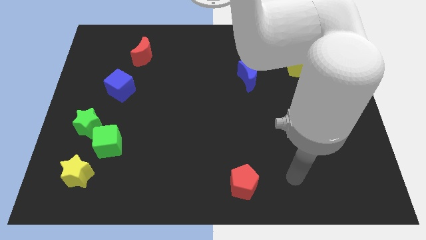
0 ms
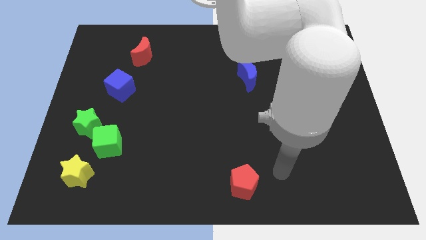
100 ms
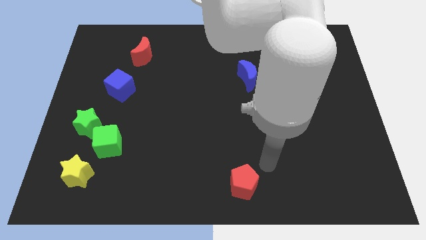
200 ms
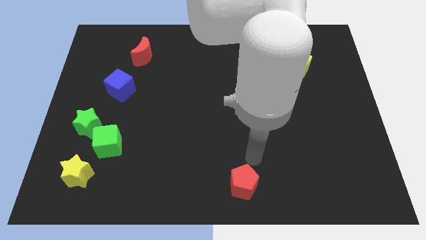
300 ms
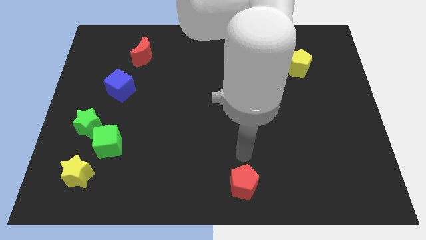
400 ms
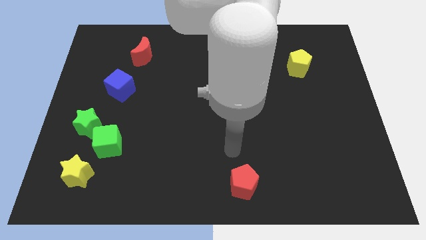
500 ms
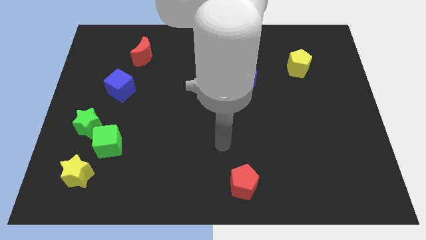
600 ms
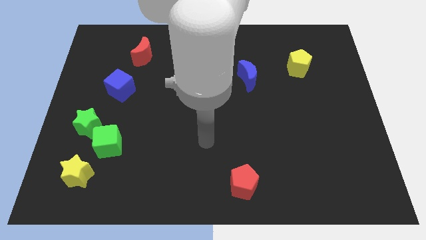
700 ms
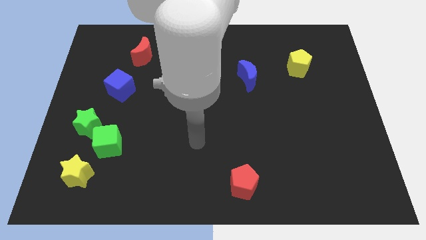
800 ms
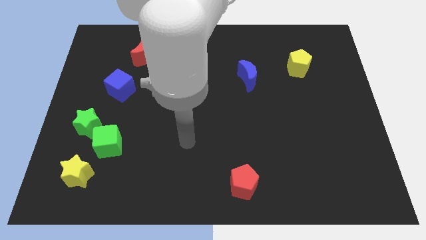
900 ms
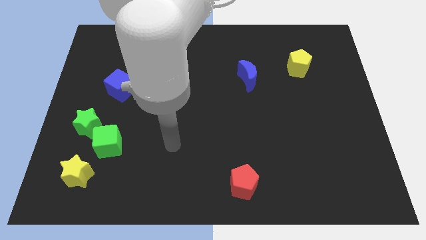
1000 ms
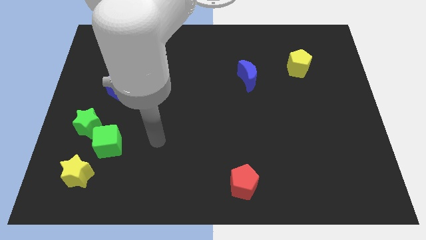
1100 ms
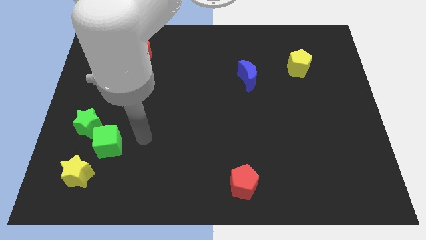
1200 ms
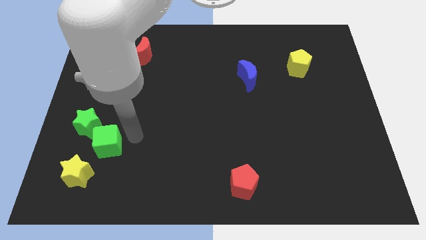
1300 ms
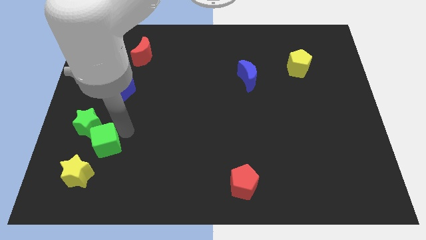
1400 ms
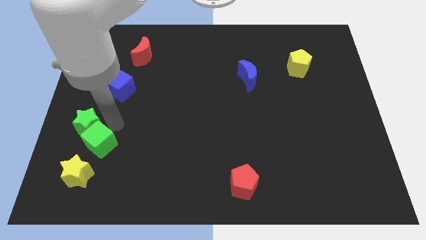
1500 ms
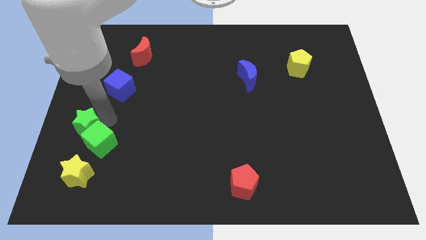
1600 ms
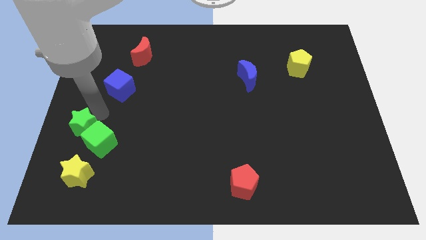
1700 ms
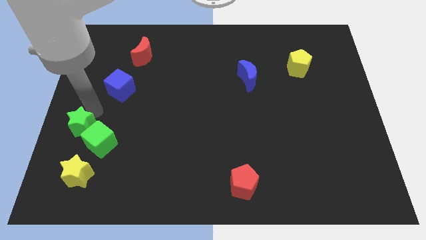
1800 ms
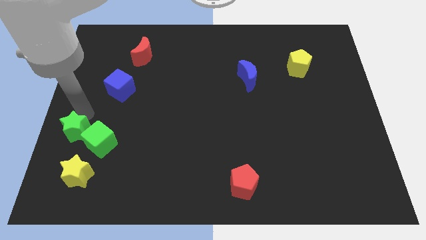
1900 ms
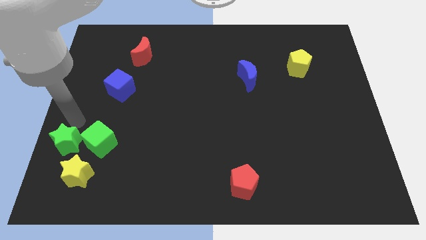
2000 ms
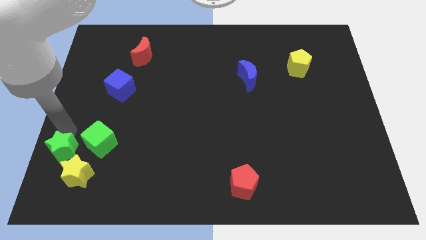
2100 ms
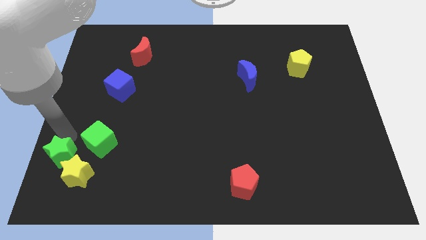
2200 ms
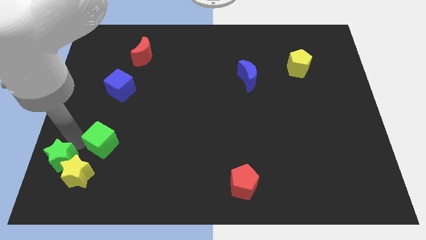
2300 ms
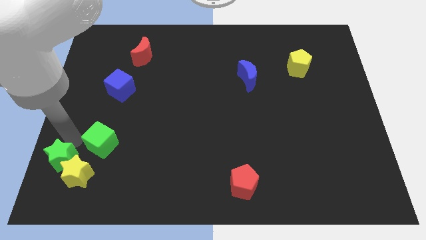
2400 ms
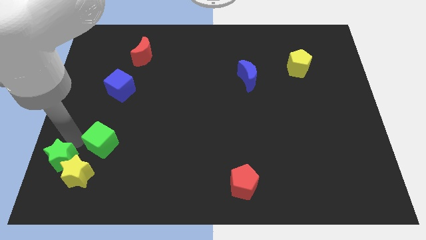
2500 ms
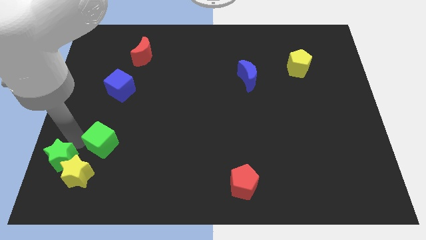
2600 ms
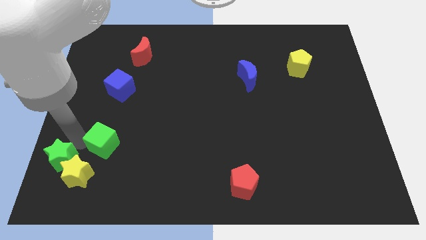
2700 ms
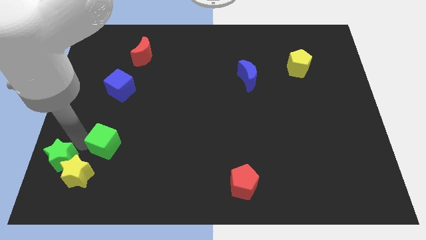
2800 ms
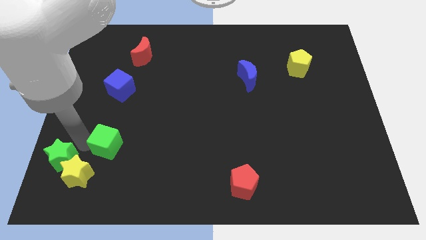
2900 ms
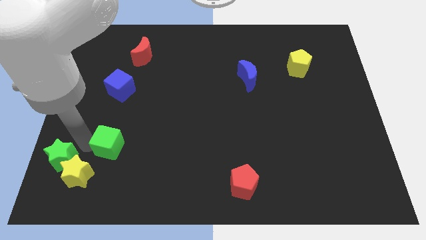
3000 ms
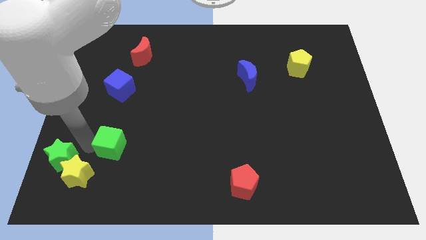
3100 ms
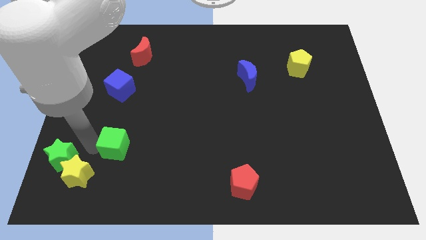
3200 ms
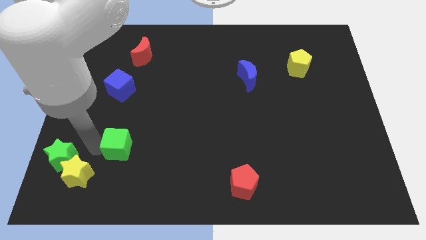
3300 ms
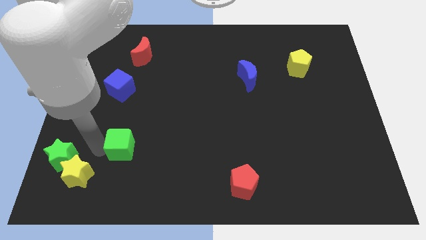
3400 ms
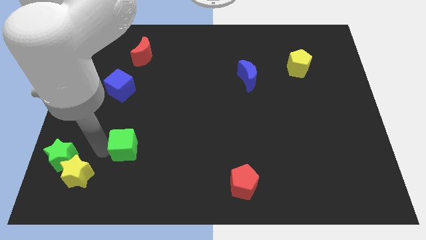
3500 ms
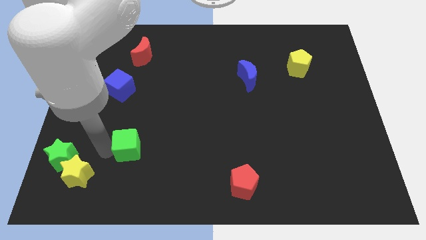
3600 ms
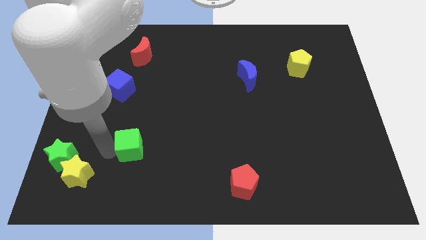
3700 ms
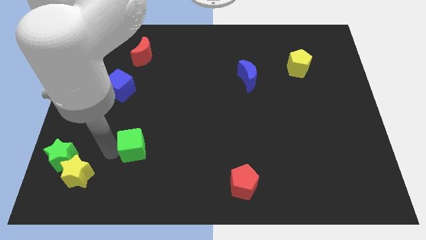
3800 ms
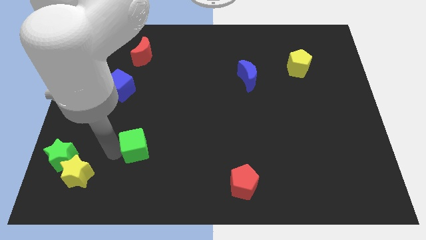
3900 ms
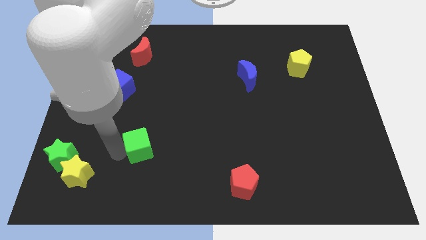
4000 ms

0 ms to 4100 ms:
push the green cube a little right

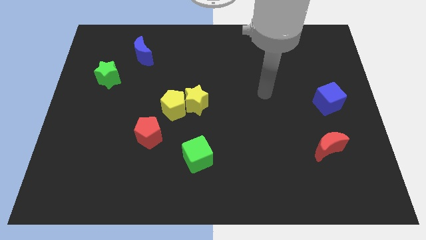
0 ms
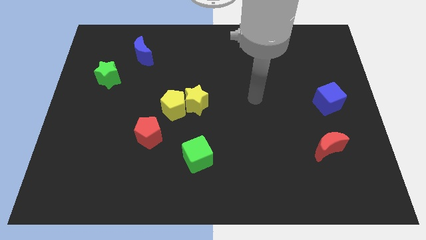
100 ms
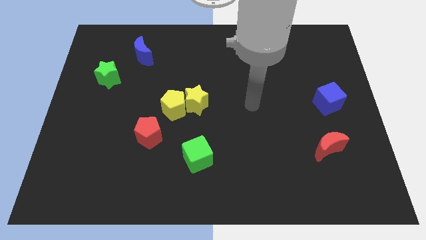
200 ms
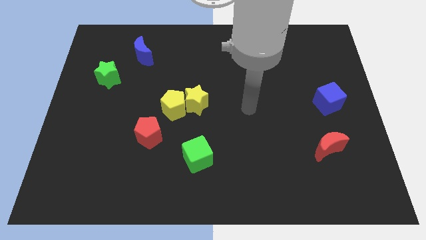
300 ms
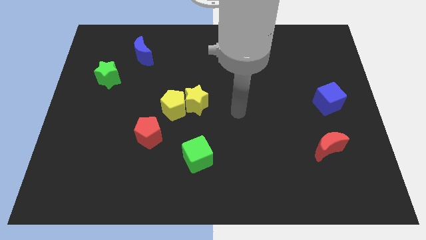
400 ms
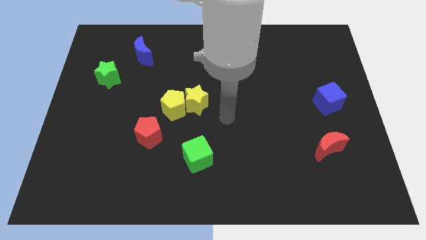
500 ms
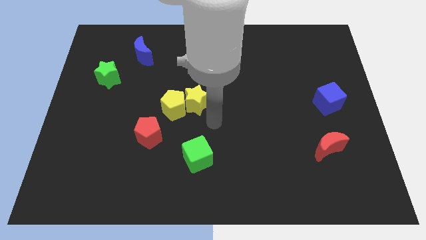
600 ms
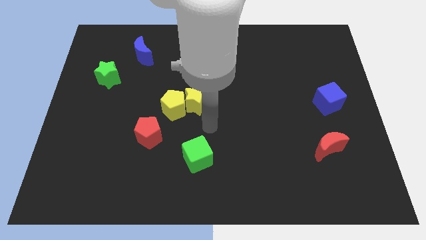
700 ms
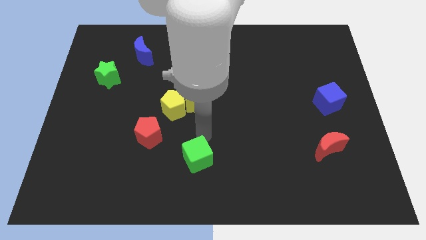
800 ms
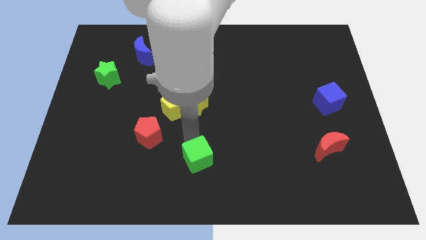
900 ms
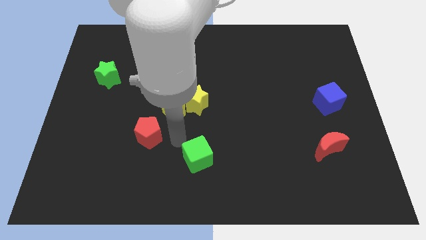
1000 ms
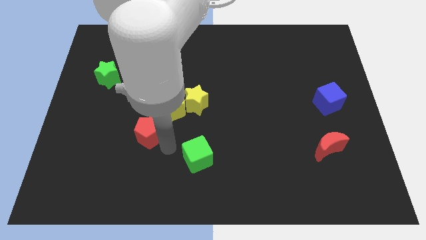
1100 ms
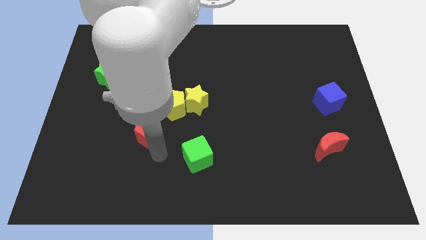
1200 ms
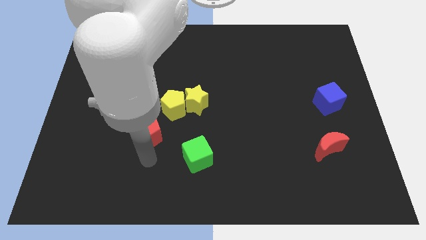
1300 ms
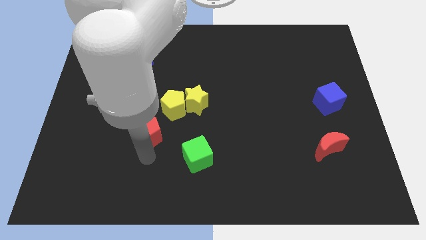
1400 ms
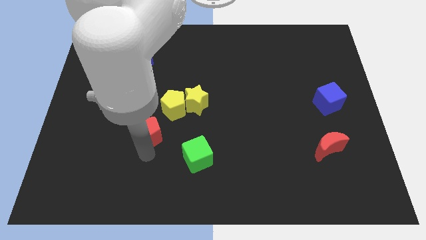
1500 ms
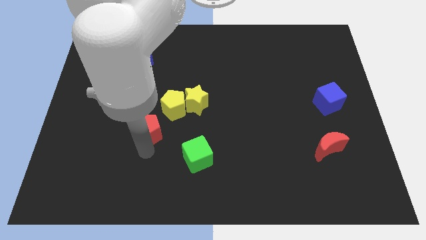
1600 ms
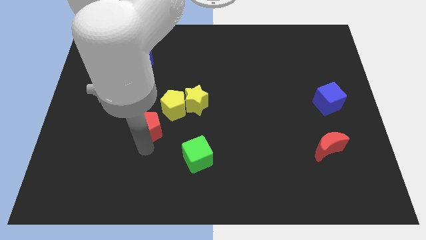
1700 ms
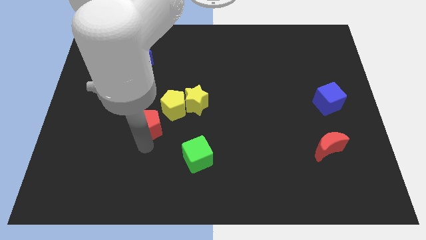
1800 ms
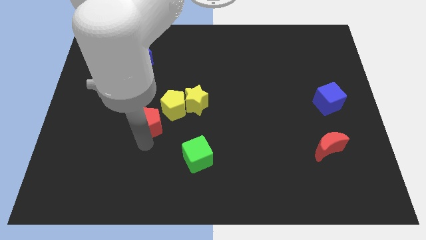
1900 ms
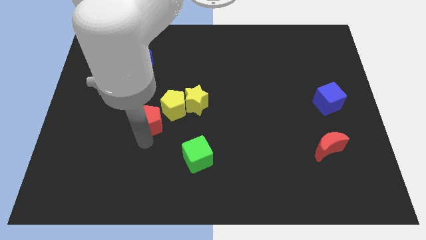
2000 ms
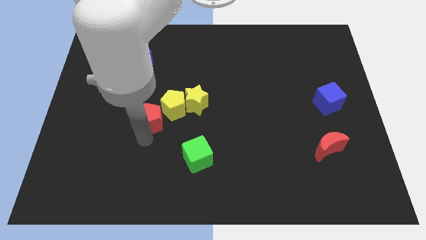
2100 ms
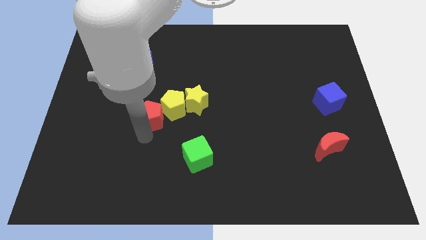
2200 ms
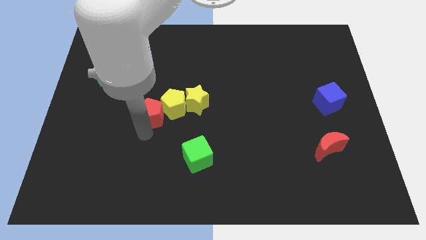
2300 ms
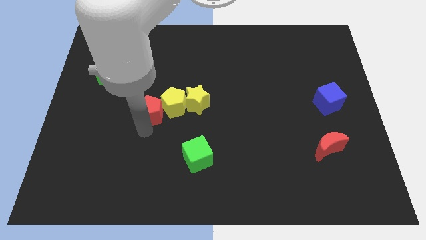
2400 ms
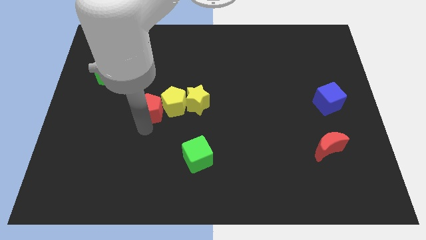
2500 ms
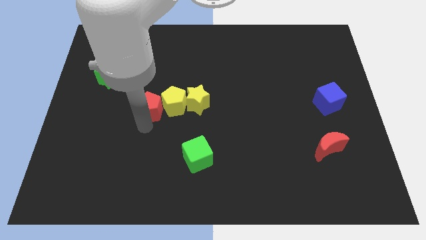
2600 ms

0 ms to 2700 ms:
slide the red pentagon up slightly

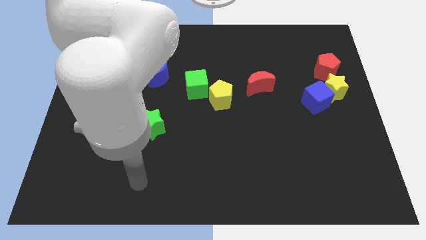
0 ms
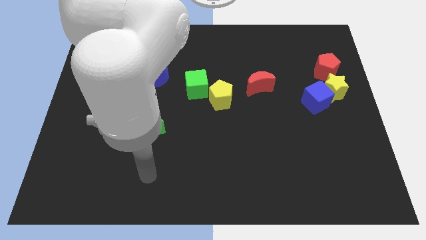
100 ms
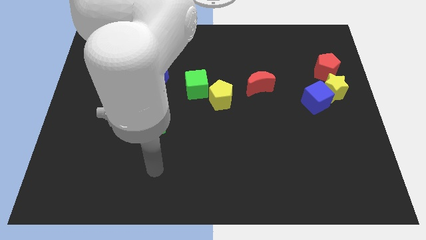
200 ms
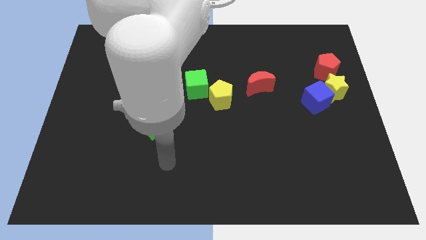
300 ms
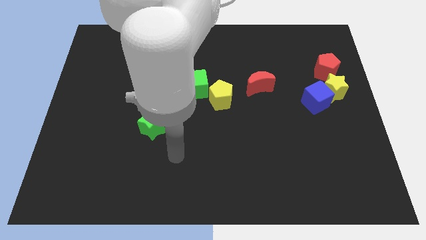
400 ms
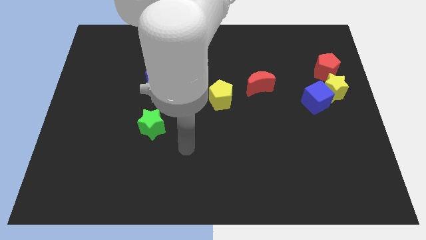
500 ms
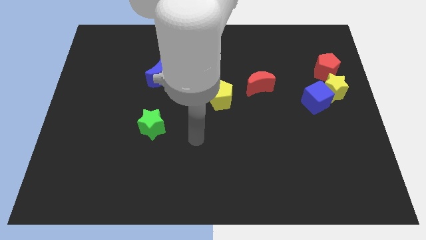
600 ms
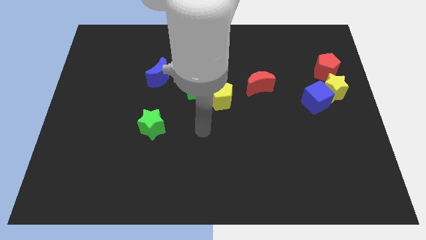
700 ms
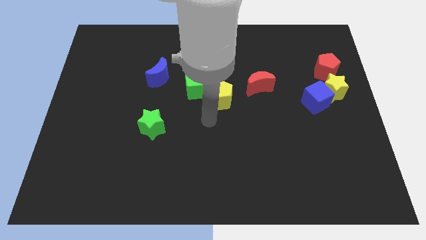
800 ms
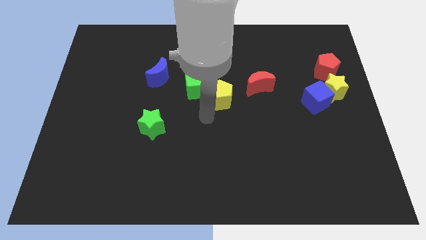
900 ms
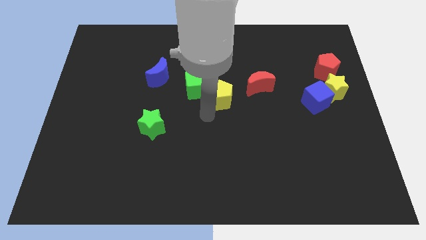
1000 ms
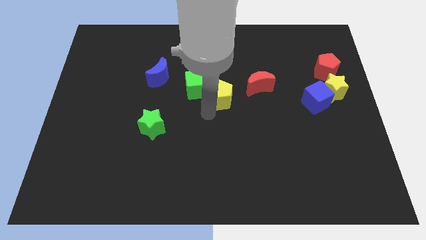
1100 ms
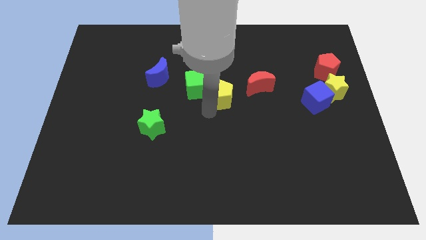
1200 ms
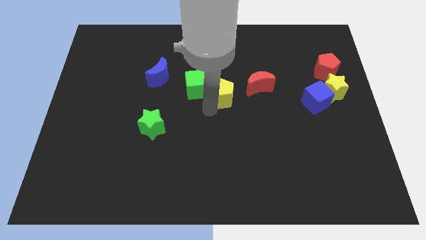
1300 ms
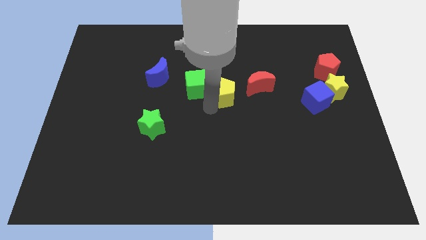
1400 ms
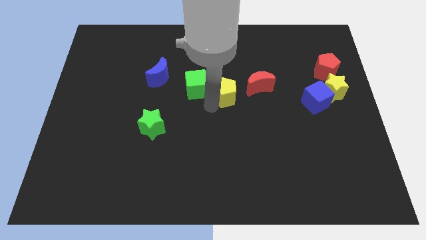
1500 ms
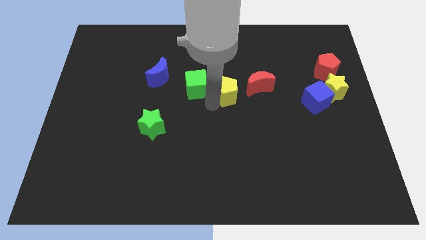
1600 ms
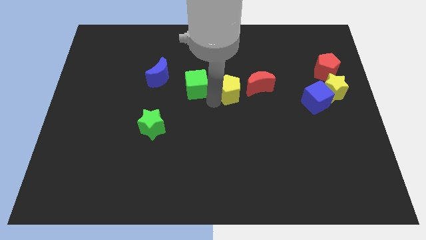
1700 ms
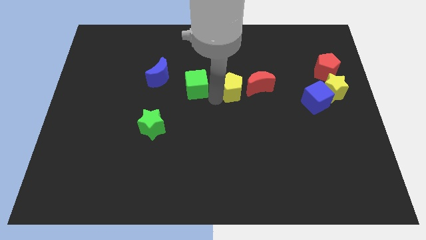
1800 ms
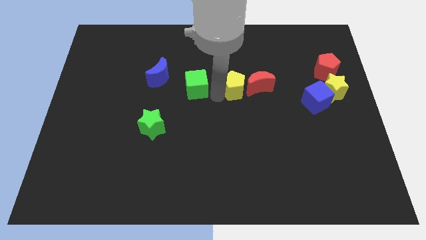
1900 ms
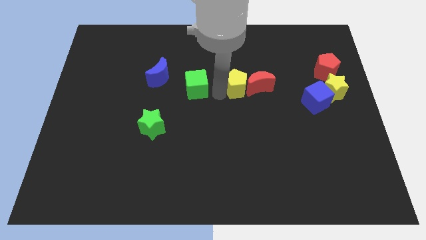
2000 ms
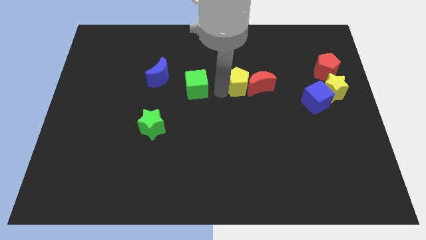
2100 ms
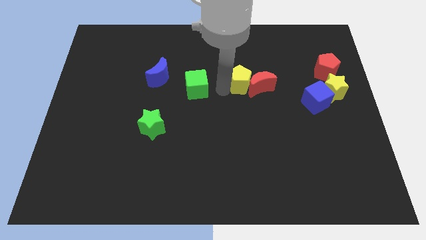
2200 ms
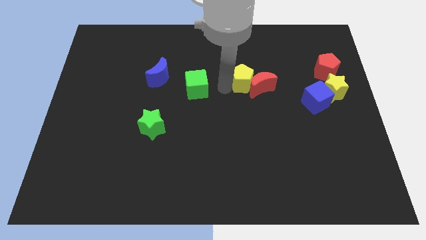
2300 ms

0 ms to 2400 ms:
slightly move the yellow pentagon diagonally up and right
